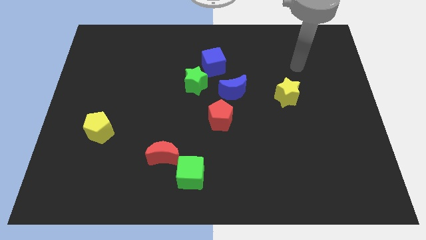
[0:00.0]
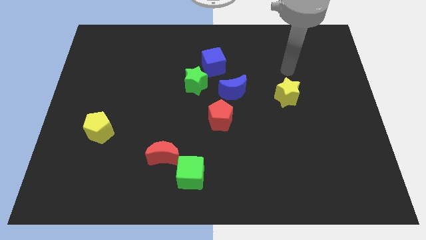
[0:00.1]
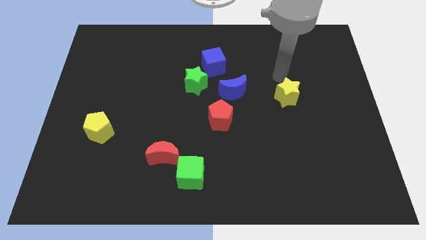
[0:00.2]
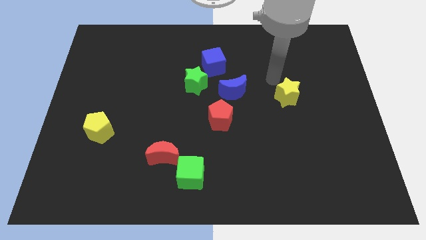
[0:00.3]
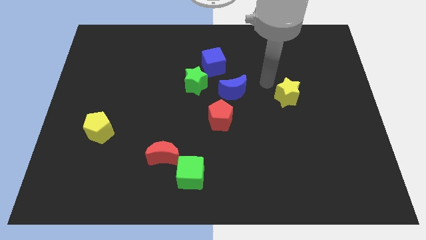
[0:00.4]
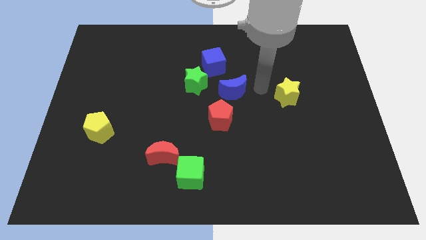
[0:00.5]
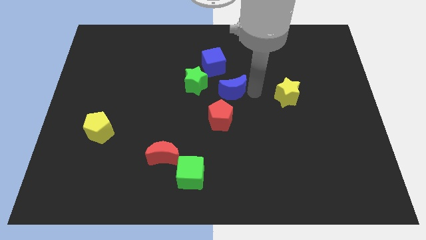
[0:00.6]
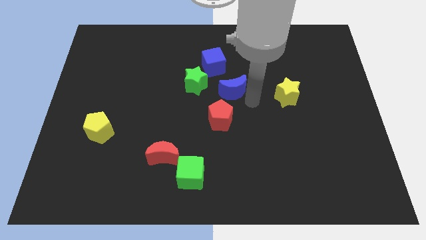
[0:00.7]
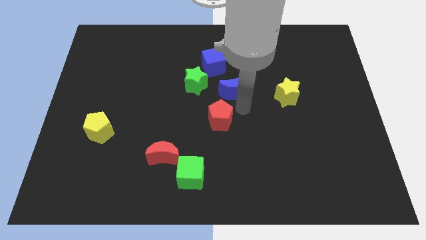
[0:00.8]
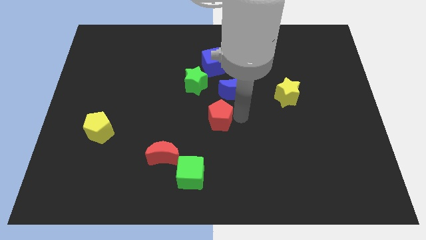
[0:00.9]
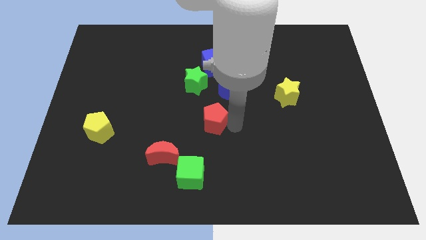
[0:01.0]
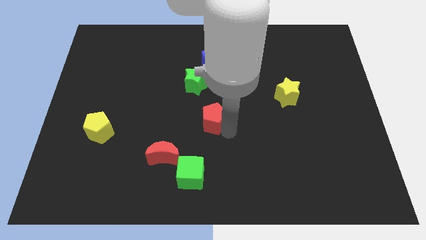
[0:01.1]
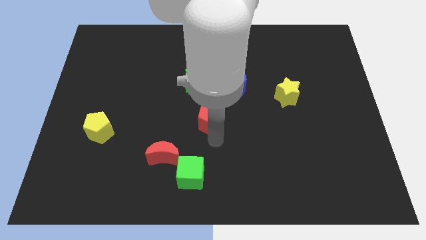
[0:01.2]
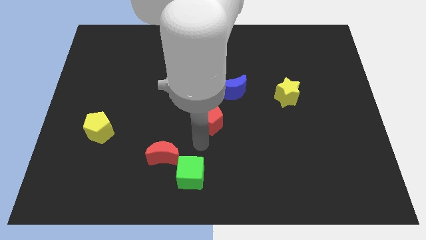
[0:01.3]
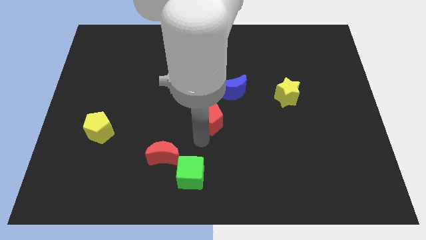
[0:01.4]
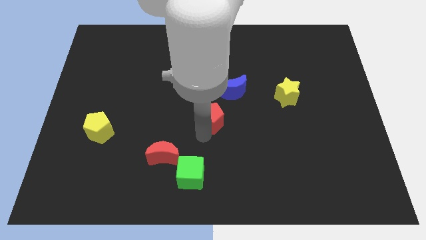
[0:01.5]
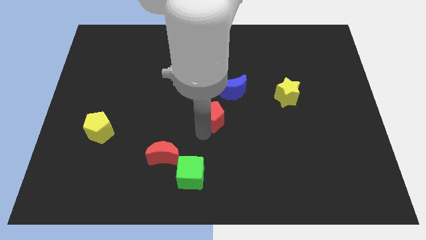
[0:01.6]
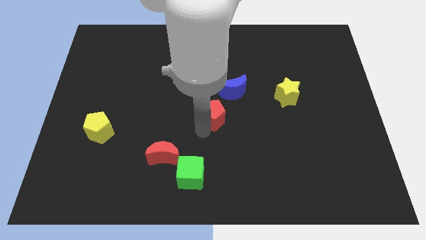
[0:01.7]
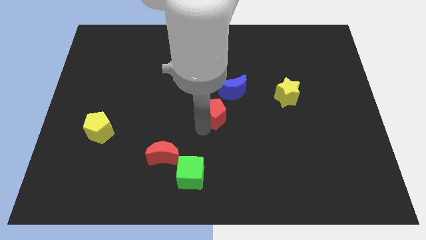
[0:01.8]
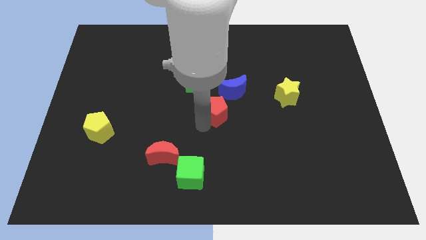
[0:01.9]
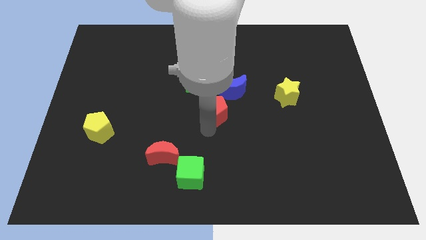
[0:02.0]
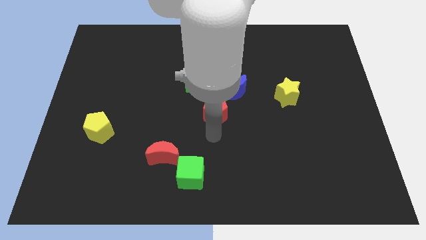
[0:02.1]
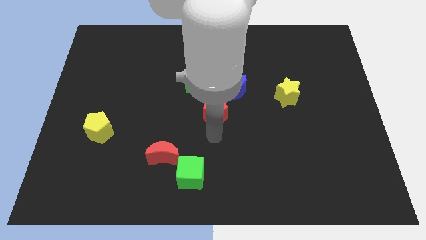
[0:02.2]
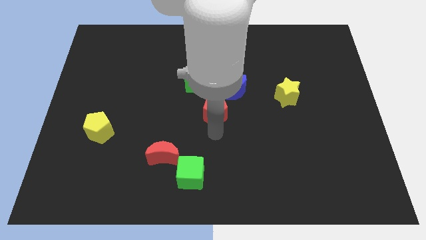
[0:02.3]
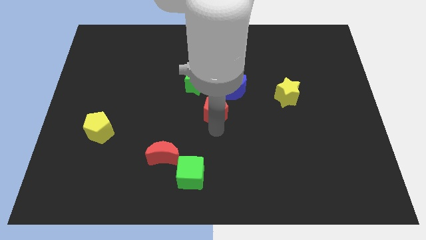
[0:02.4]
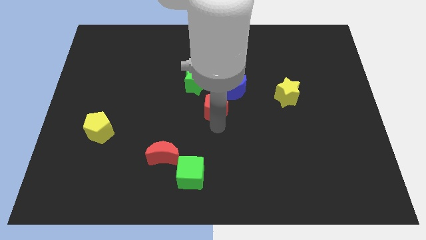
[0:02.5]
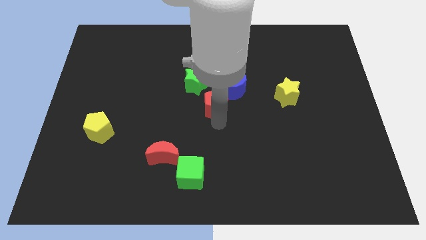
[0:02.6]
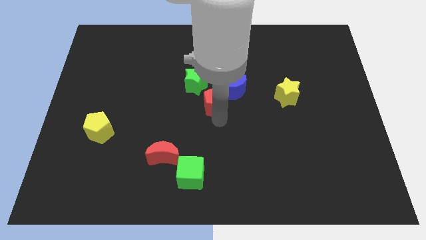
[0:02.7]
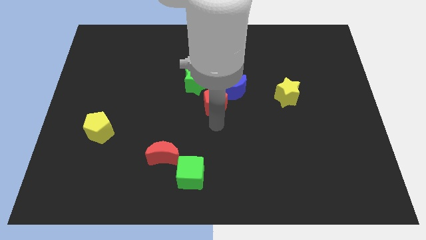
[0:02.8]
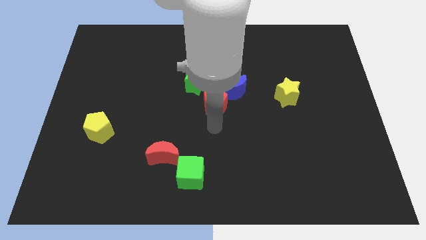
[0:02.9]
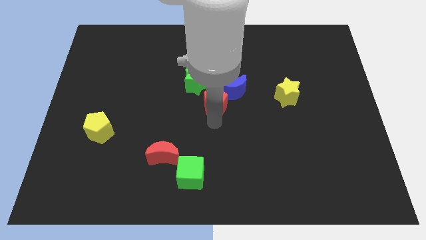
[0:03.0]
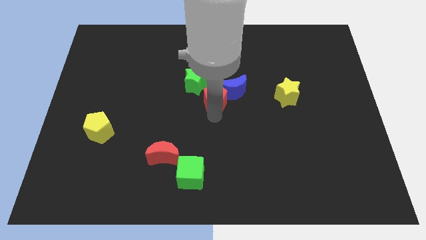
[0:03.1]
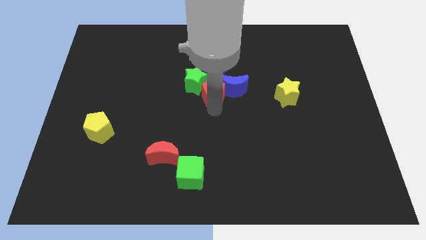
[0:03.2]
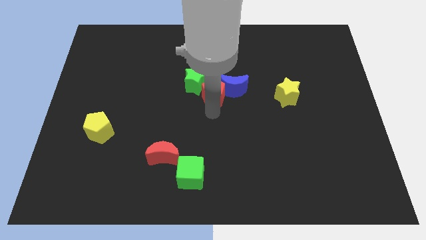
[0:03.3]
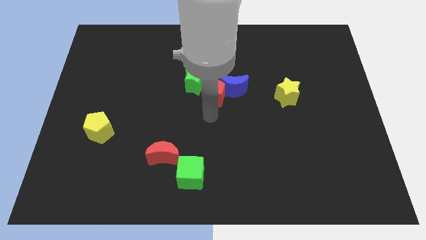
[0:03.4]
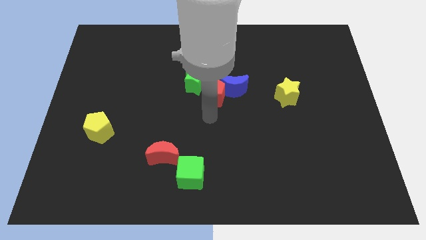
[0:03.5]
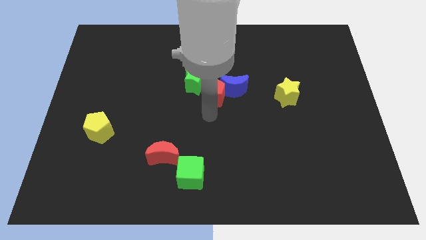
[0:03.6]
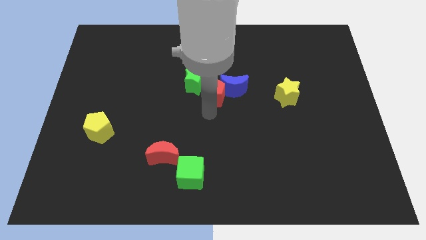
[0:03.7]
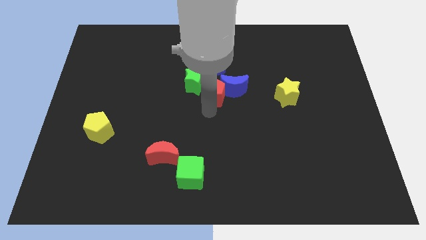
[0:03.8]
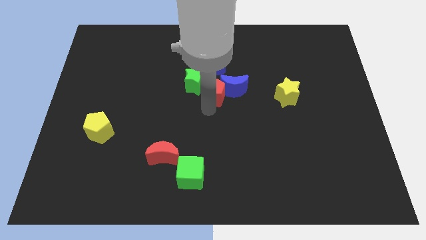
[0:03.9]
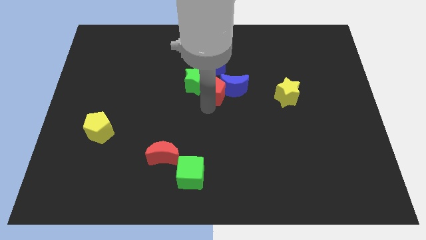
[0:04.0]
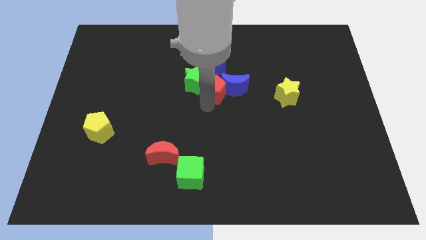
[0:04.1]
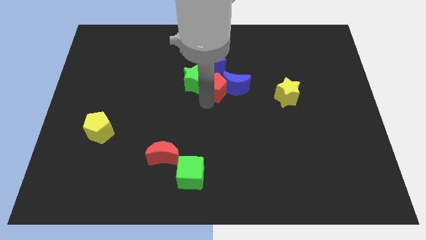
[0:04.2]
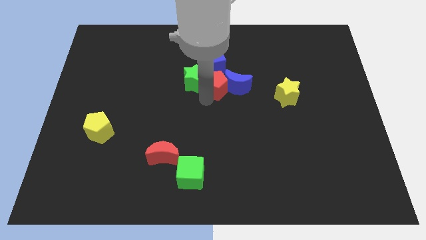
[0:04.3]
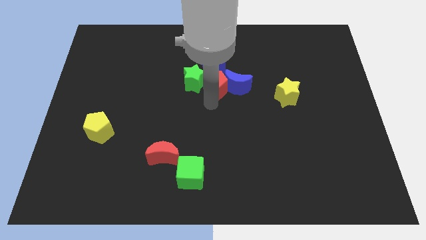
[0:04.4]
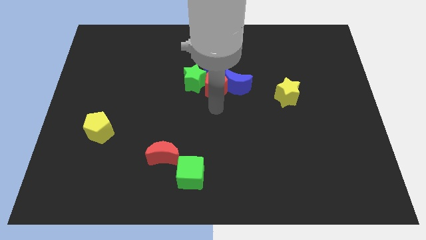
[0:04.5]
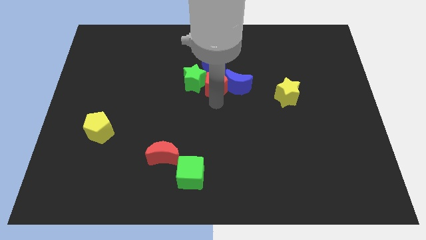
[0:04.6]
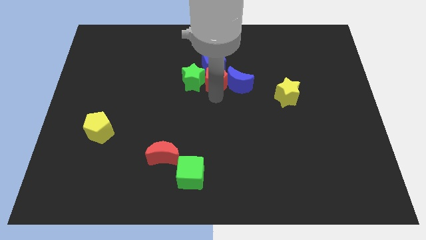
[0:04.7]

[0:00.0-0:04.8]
move the red pentagon to the blue cube

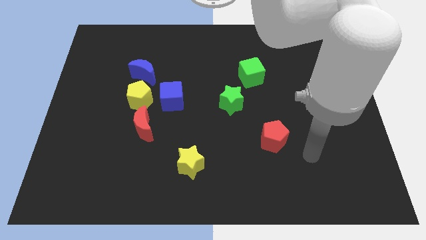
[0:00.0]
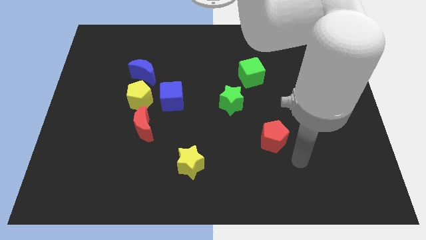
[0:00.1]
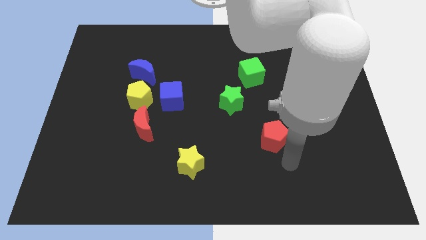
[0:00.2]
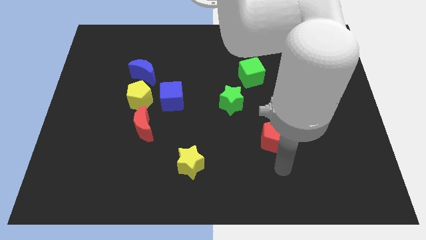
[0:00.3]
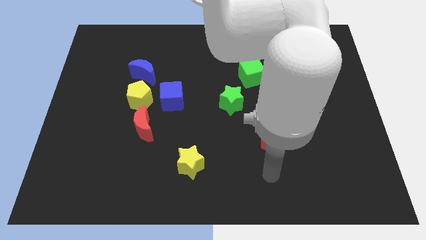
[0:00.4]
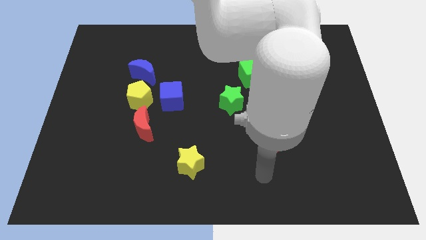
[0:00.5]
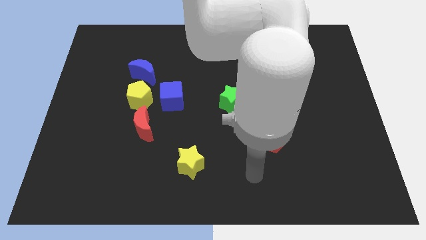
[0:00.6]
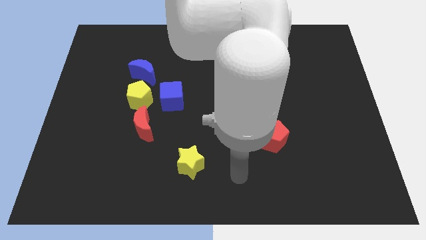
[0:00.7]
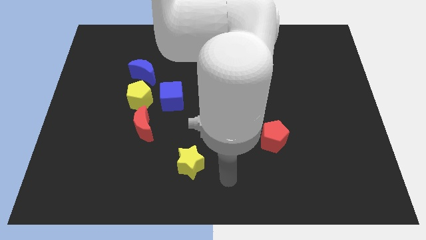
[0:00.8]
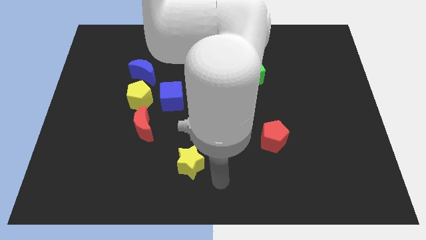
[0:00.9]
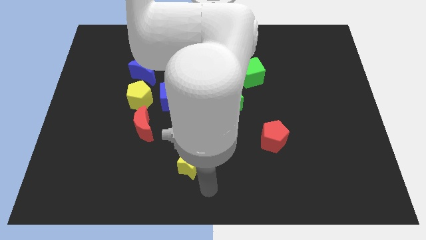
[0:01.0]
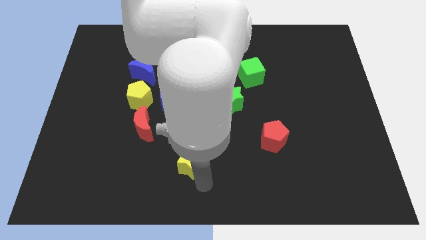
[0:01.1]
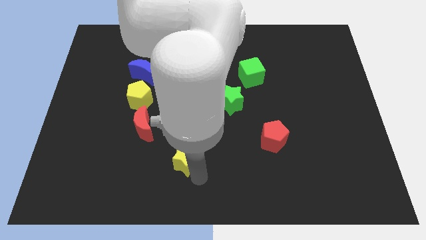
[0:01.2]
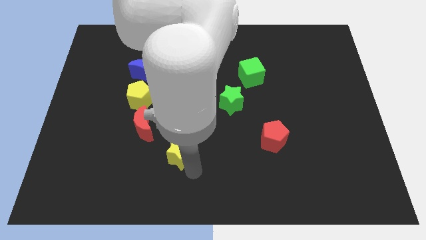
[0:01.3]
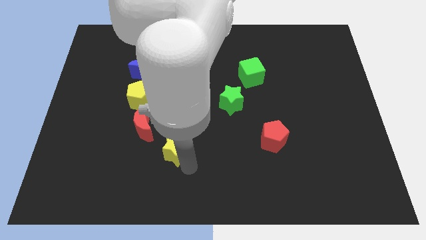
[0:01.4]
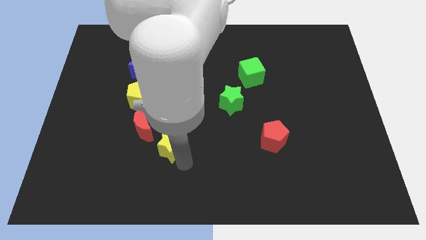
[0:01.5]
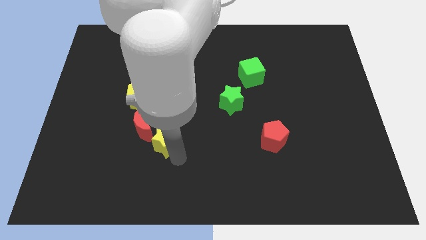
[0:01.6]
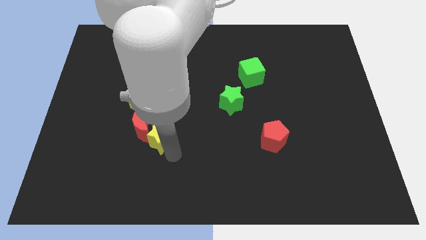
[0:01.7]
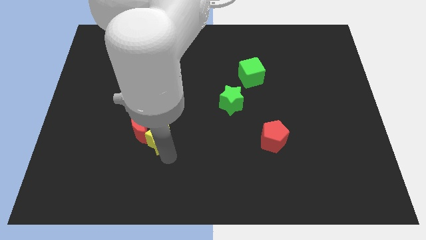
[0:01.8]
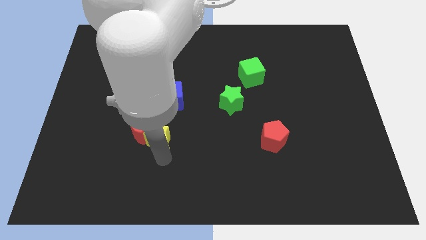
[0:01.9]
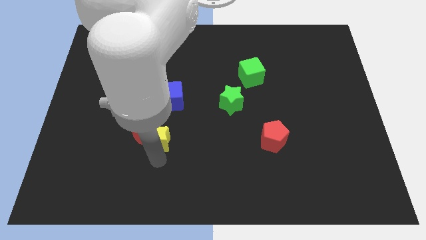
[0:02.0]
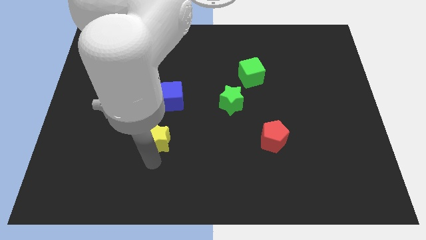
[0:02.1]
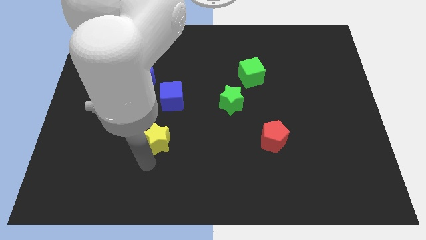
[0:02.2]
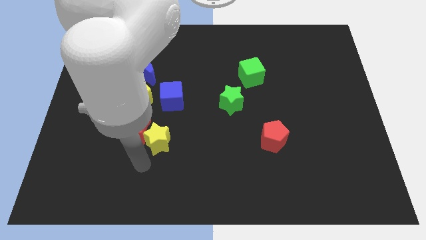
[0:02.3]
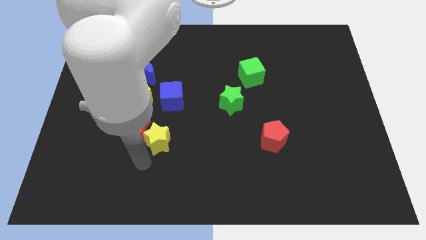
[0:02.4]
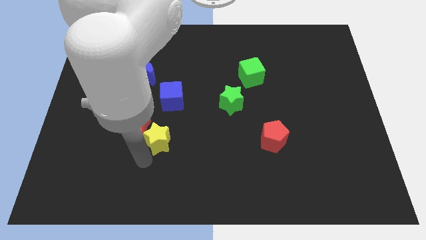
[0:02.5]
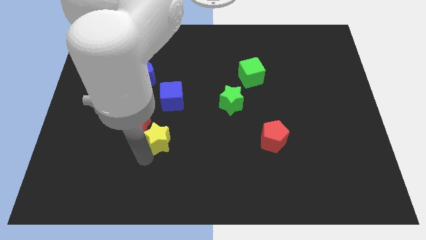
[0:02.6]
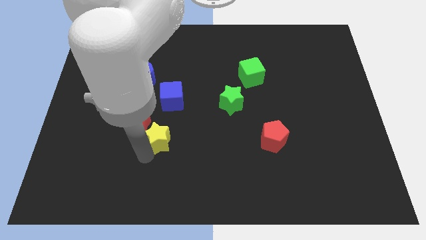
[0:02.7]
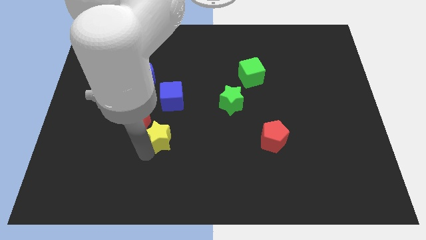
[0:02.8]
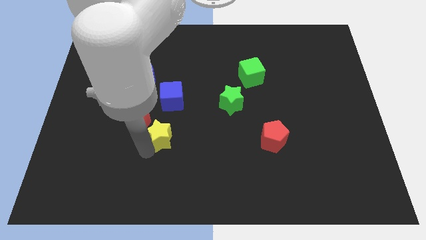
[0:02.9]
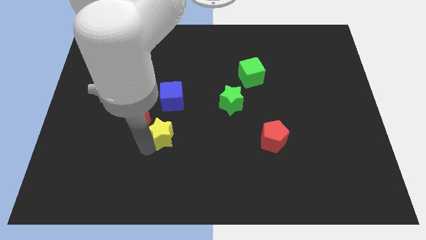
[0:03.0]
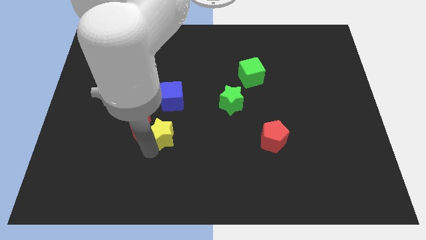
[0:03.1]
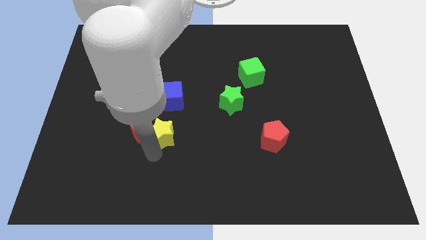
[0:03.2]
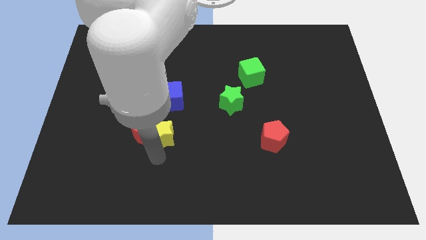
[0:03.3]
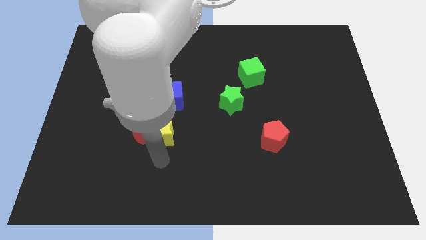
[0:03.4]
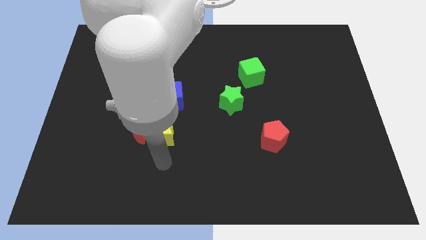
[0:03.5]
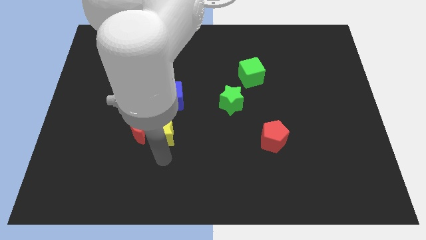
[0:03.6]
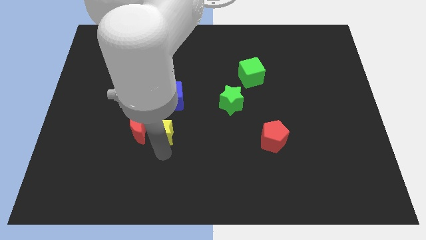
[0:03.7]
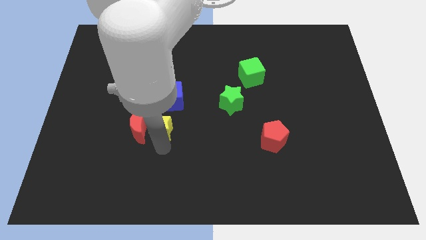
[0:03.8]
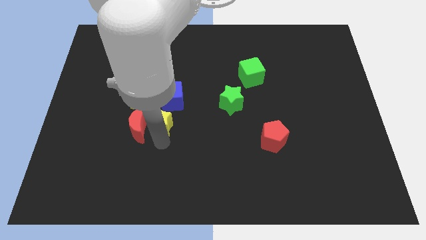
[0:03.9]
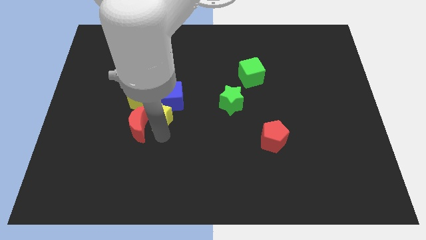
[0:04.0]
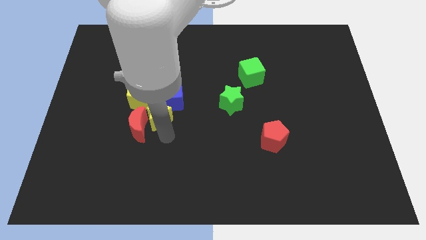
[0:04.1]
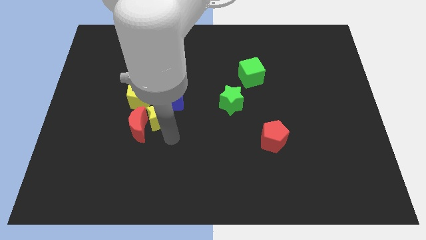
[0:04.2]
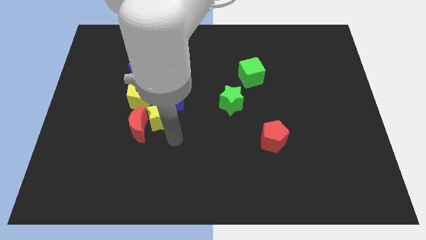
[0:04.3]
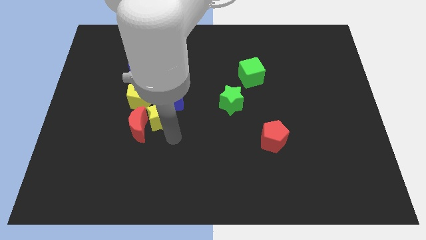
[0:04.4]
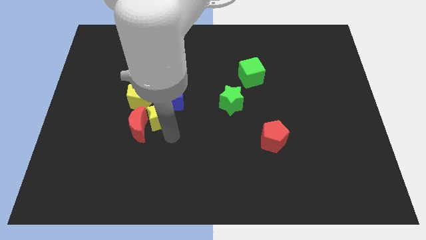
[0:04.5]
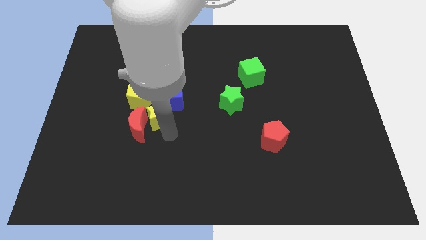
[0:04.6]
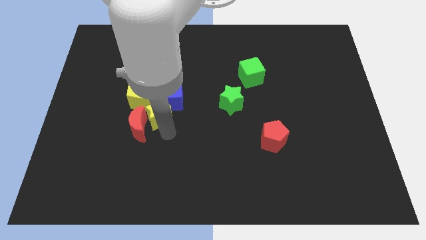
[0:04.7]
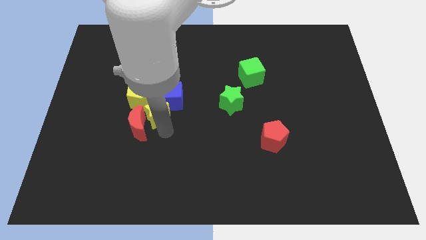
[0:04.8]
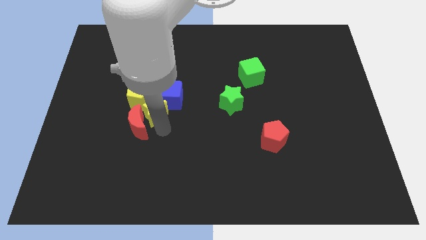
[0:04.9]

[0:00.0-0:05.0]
put the yellow star close to the yellow pentagon
